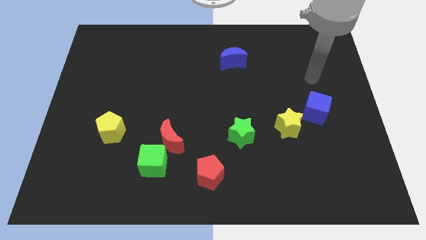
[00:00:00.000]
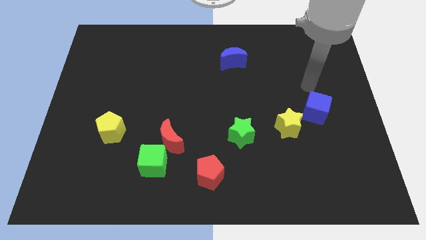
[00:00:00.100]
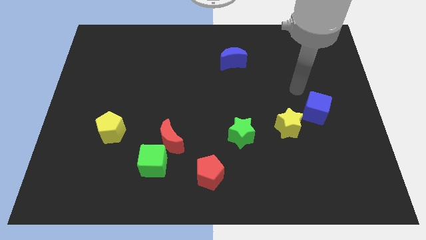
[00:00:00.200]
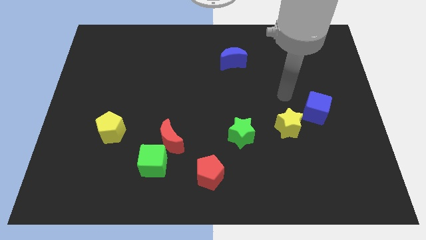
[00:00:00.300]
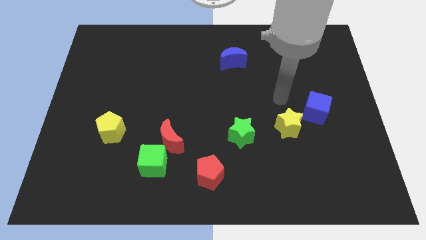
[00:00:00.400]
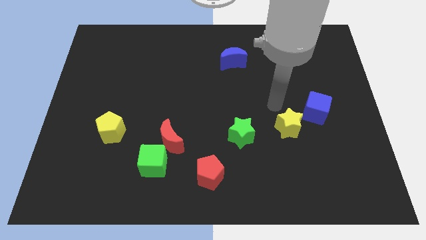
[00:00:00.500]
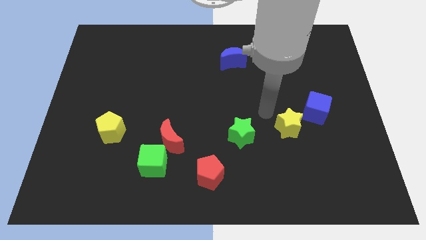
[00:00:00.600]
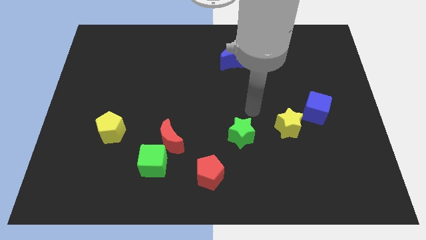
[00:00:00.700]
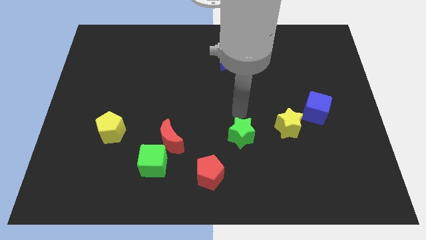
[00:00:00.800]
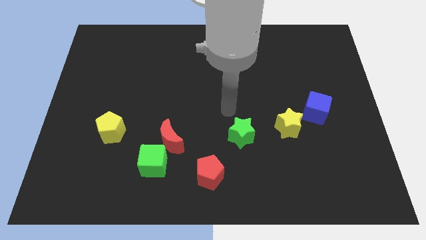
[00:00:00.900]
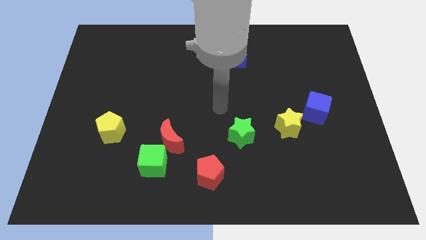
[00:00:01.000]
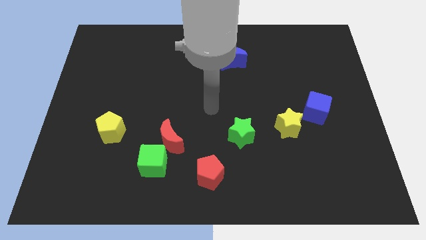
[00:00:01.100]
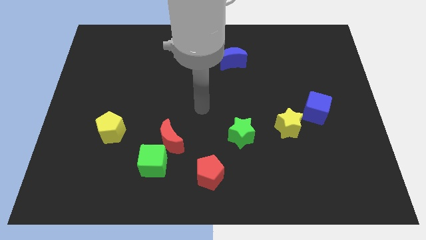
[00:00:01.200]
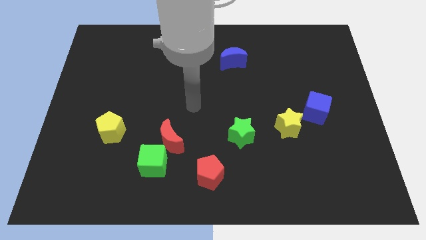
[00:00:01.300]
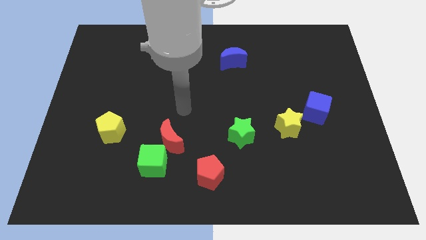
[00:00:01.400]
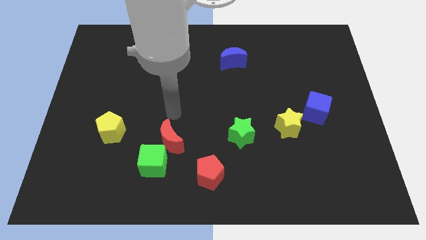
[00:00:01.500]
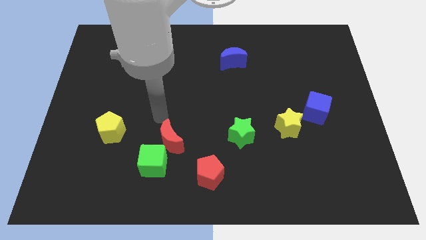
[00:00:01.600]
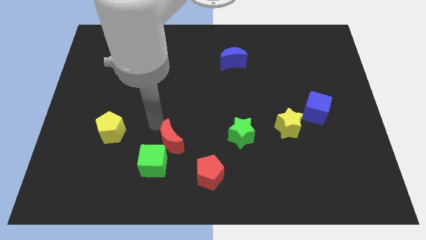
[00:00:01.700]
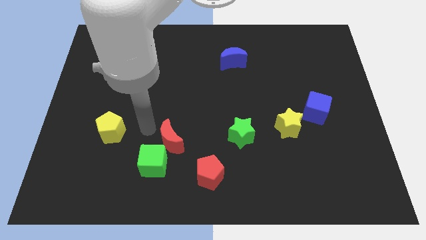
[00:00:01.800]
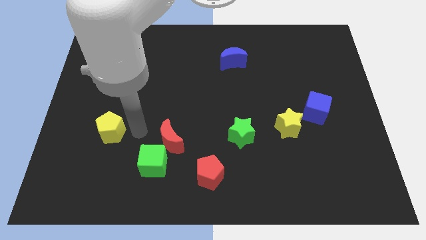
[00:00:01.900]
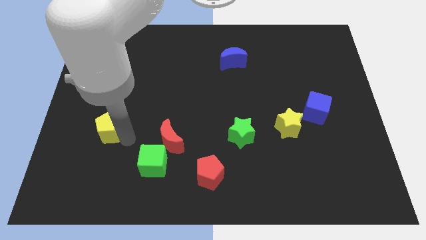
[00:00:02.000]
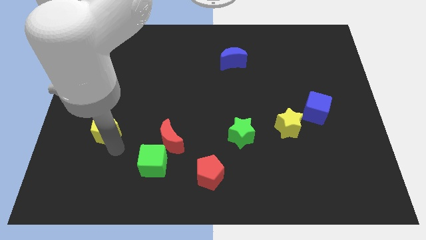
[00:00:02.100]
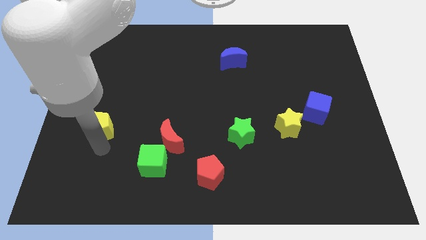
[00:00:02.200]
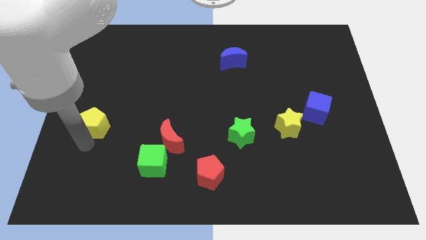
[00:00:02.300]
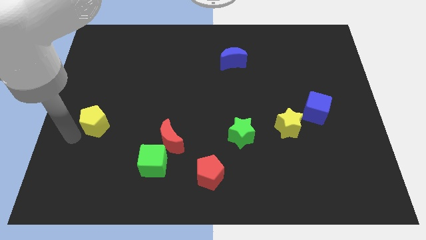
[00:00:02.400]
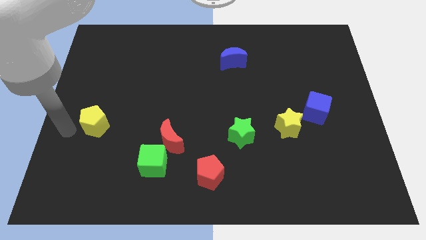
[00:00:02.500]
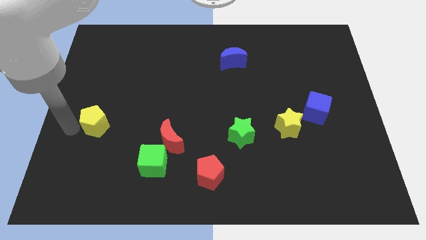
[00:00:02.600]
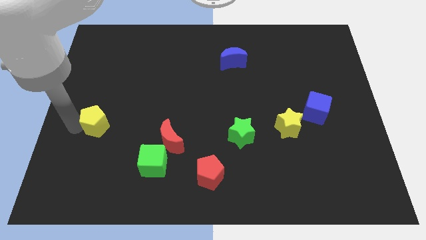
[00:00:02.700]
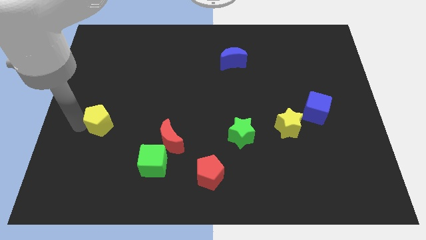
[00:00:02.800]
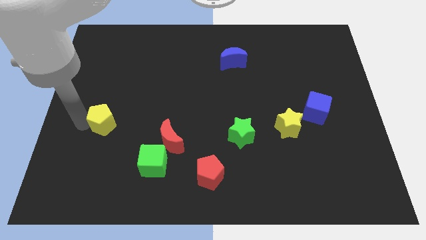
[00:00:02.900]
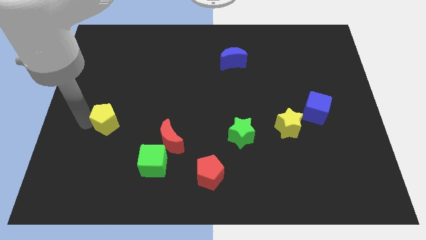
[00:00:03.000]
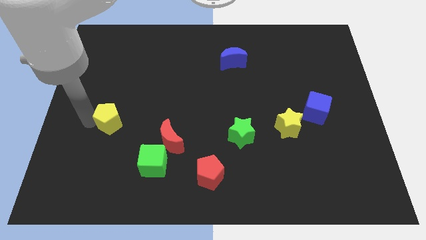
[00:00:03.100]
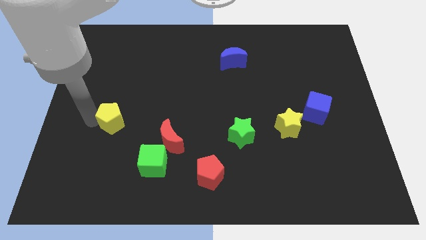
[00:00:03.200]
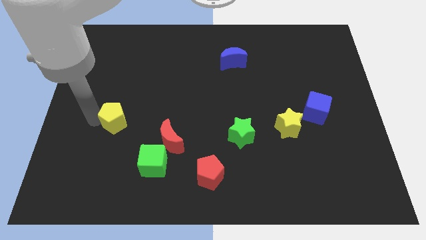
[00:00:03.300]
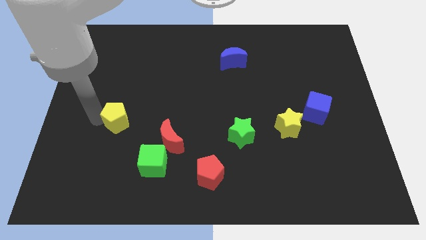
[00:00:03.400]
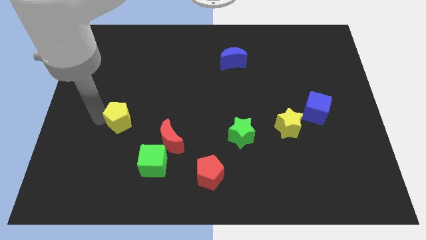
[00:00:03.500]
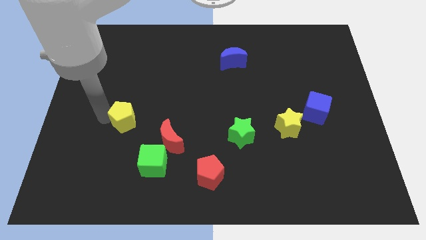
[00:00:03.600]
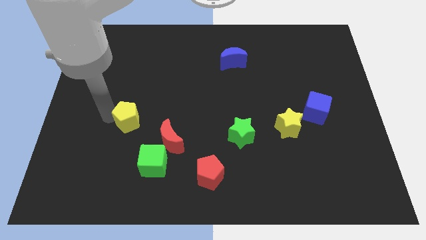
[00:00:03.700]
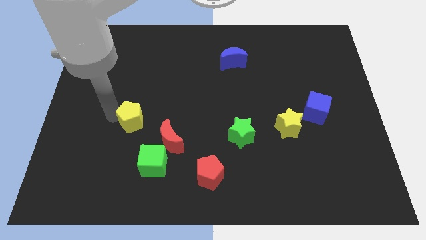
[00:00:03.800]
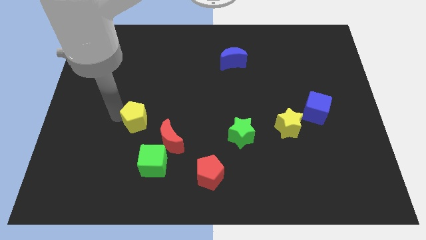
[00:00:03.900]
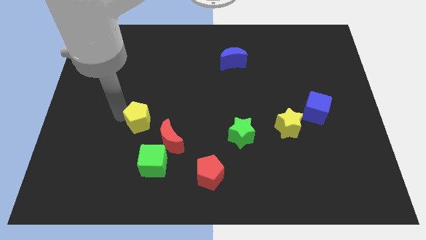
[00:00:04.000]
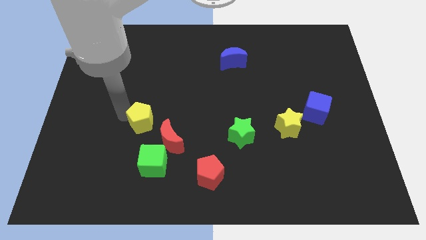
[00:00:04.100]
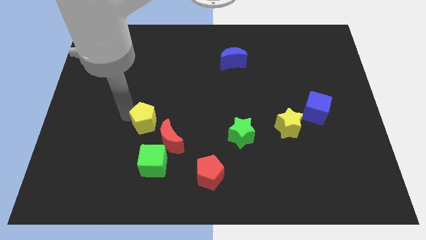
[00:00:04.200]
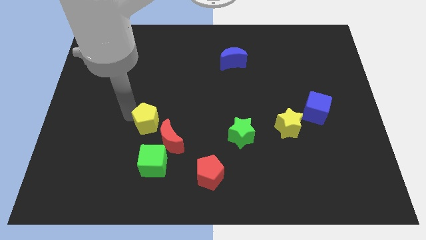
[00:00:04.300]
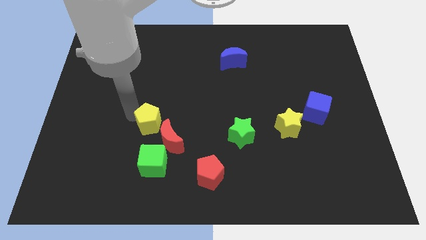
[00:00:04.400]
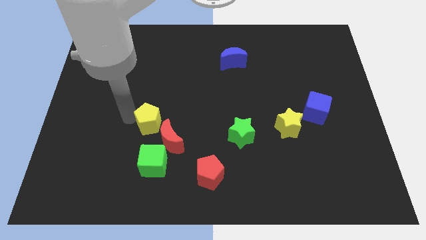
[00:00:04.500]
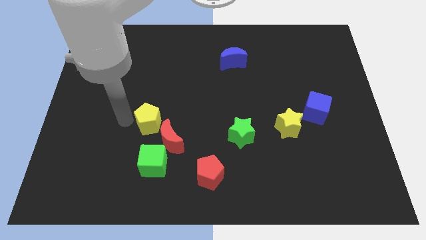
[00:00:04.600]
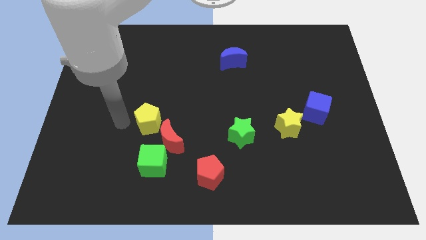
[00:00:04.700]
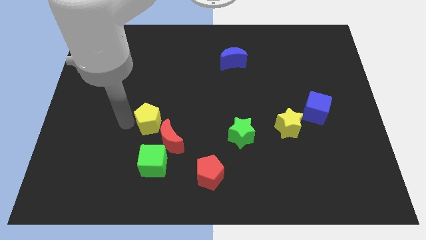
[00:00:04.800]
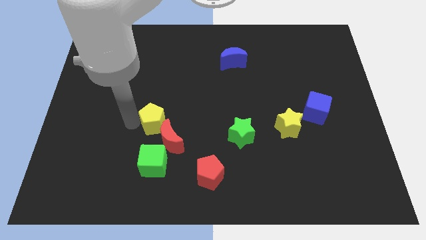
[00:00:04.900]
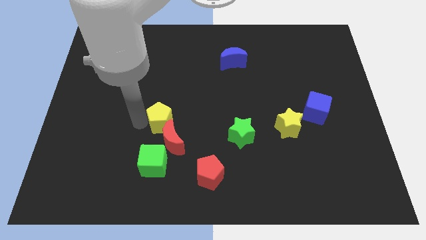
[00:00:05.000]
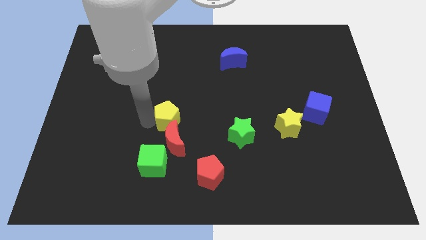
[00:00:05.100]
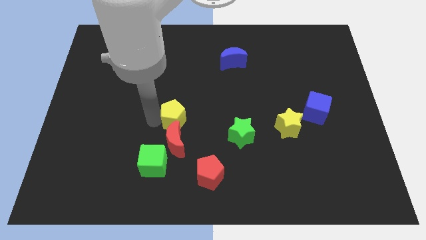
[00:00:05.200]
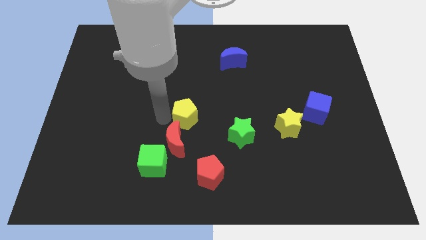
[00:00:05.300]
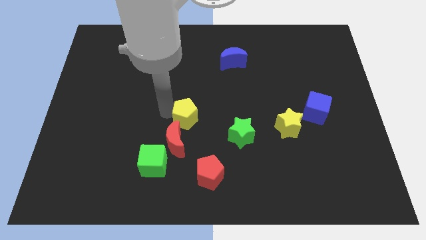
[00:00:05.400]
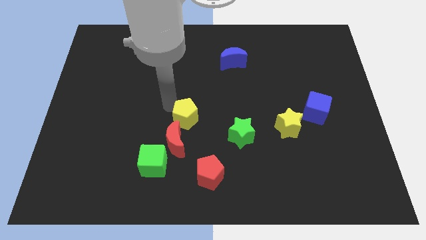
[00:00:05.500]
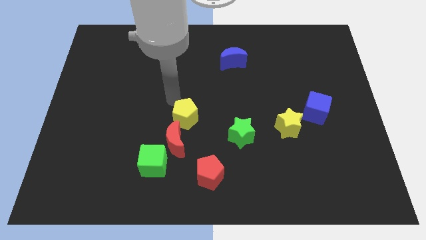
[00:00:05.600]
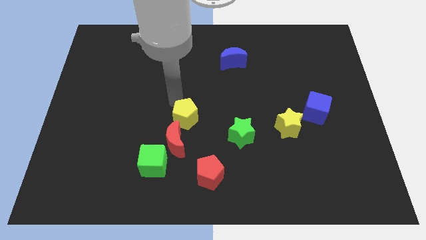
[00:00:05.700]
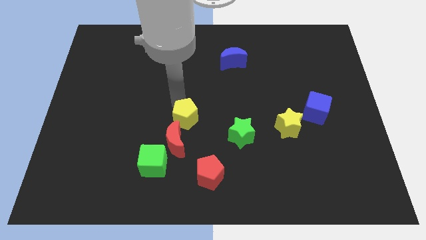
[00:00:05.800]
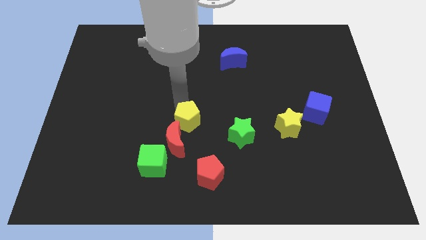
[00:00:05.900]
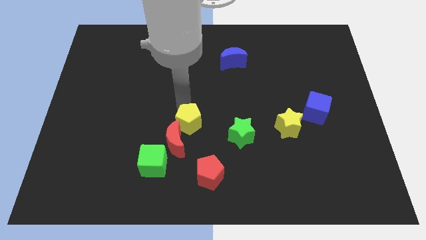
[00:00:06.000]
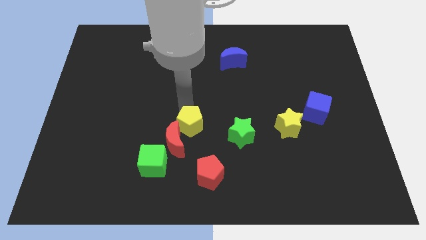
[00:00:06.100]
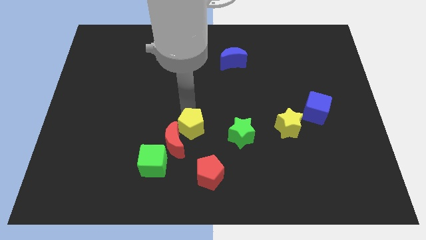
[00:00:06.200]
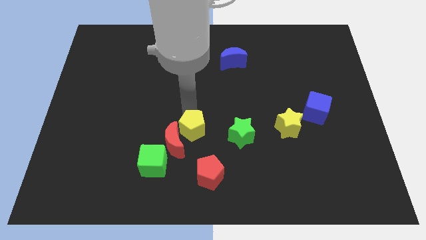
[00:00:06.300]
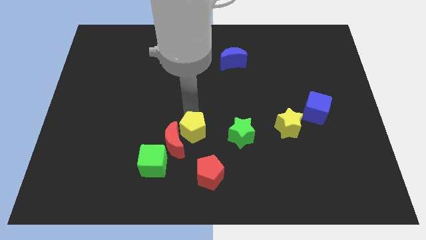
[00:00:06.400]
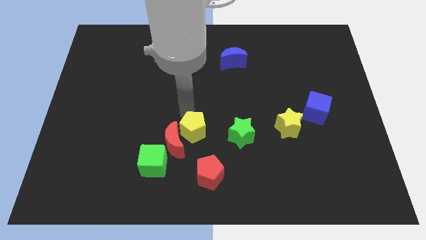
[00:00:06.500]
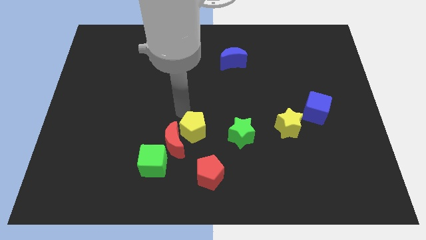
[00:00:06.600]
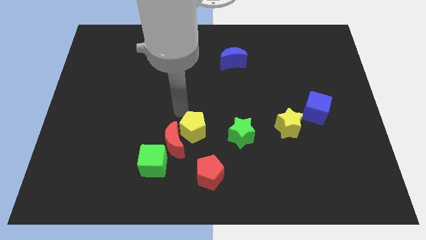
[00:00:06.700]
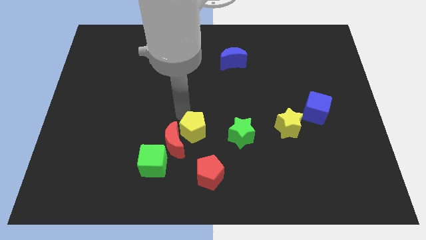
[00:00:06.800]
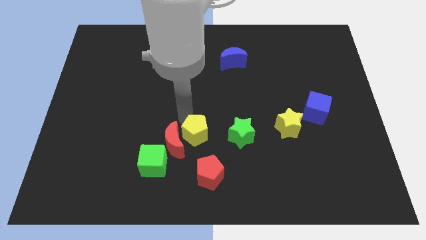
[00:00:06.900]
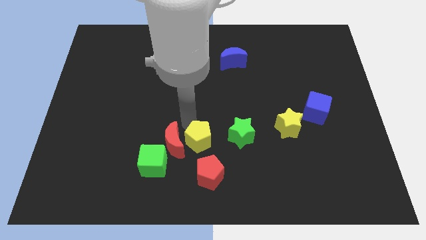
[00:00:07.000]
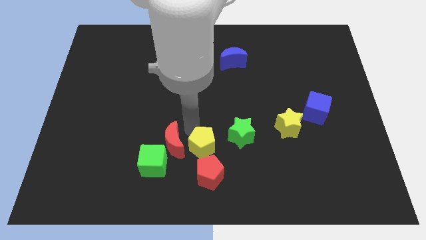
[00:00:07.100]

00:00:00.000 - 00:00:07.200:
push the yellow pentagon to the bottom left of the green star

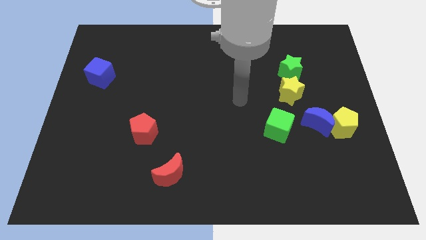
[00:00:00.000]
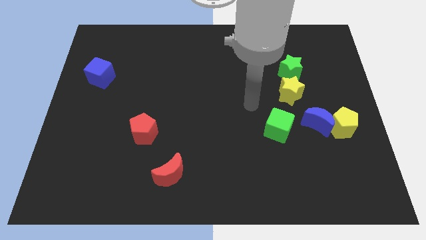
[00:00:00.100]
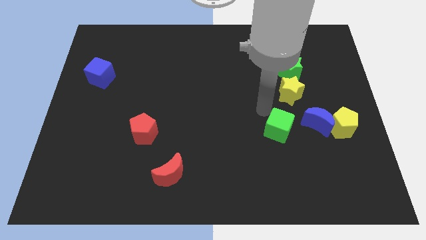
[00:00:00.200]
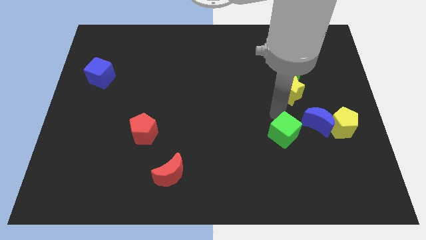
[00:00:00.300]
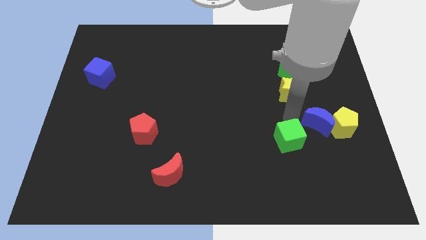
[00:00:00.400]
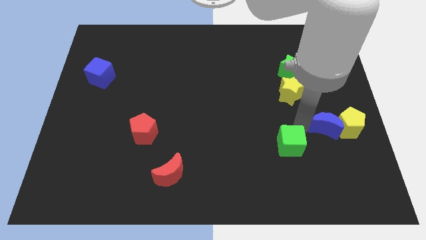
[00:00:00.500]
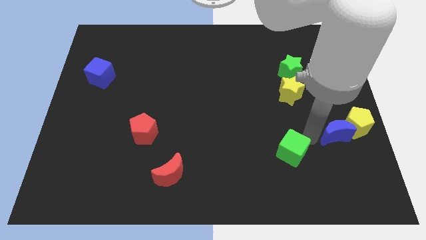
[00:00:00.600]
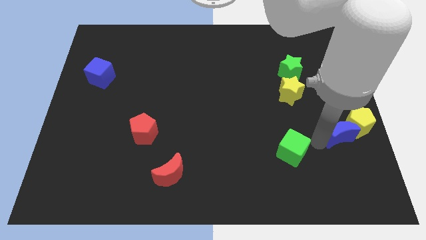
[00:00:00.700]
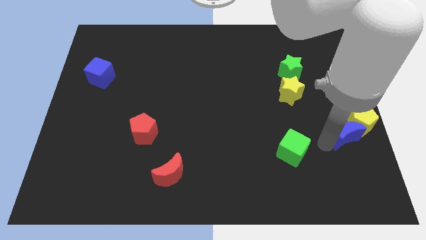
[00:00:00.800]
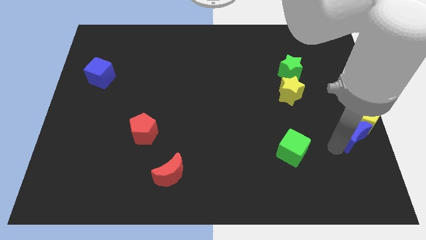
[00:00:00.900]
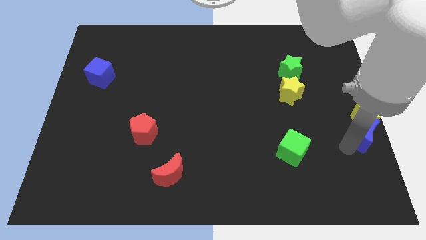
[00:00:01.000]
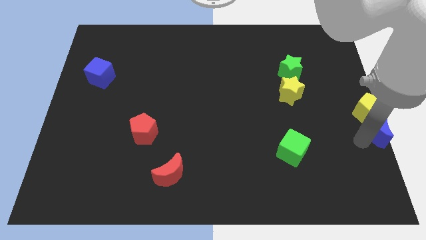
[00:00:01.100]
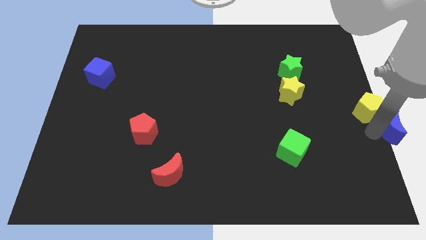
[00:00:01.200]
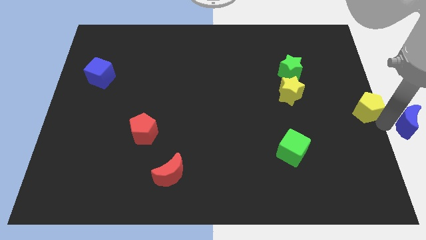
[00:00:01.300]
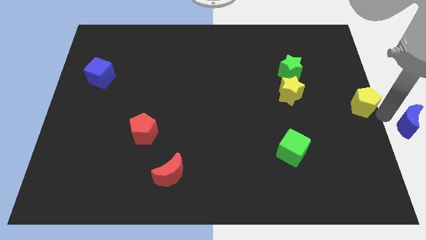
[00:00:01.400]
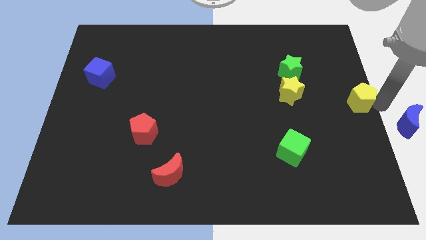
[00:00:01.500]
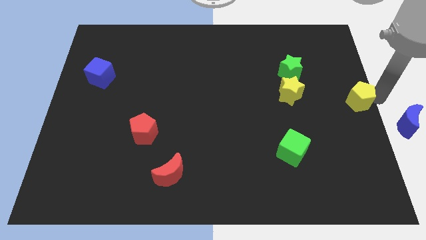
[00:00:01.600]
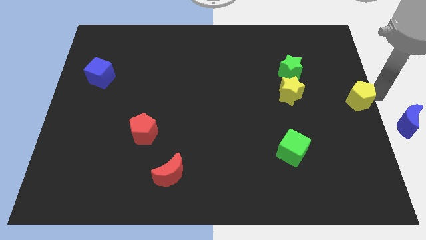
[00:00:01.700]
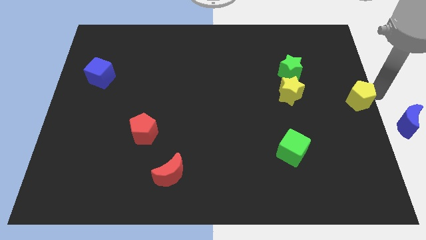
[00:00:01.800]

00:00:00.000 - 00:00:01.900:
push the yellow pentagon just right of the yellow star
